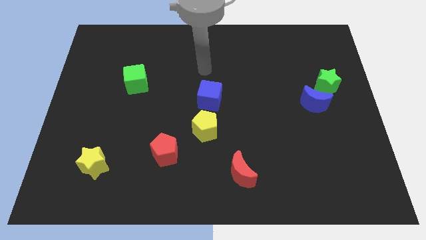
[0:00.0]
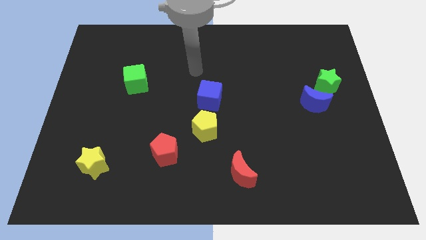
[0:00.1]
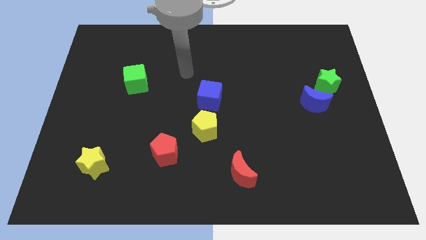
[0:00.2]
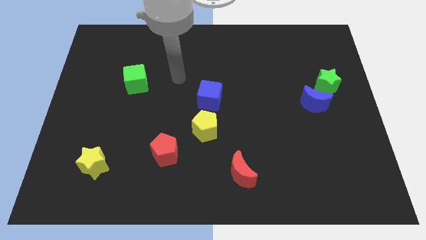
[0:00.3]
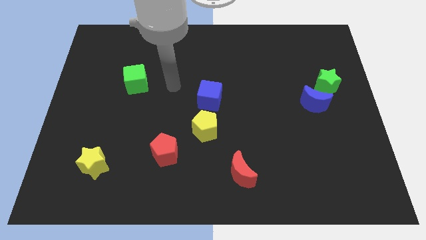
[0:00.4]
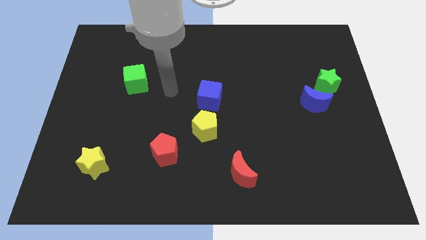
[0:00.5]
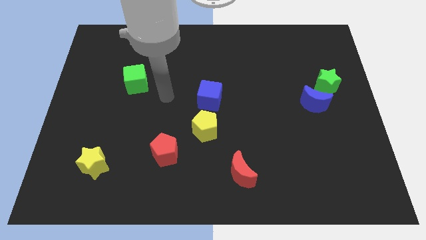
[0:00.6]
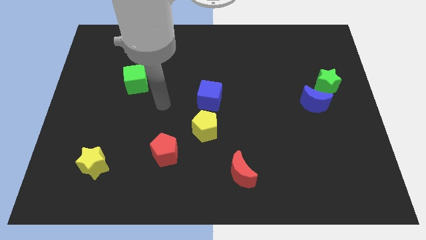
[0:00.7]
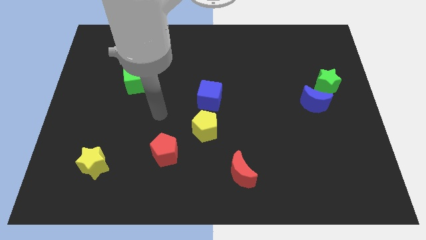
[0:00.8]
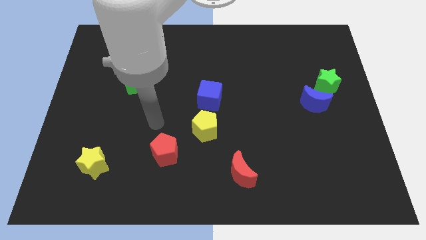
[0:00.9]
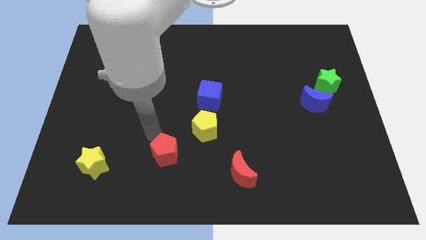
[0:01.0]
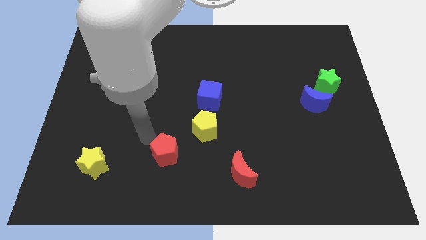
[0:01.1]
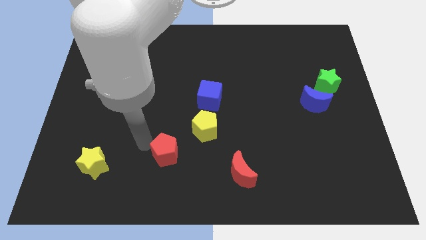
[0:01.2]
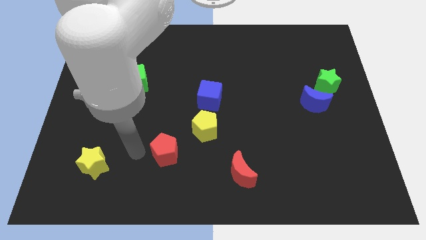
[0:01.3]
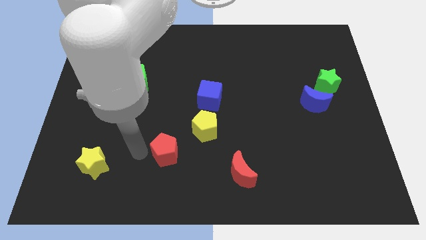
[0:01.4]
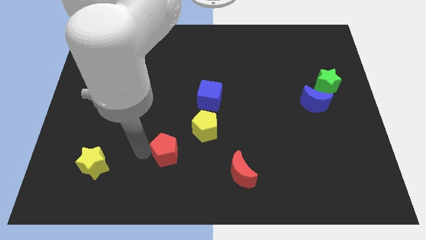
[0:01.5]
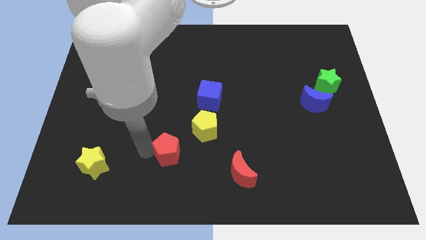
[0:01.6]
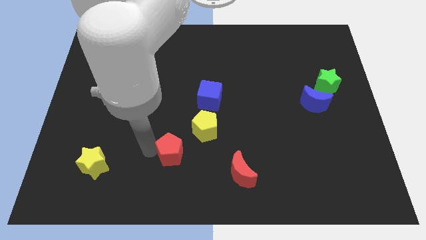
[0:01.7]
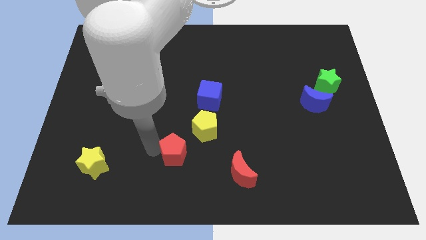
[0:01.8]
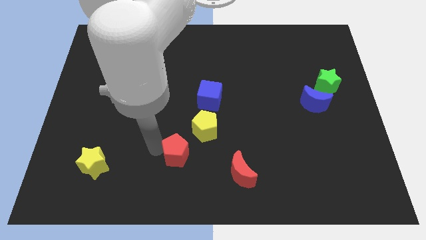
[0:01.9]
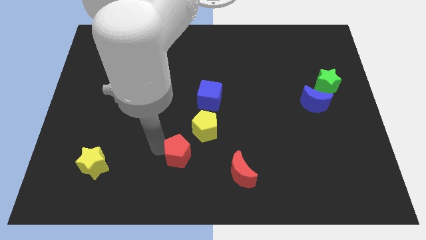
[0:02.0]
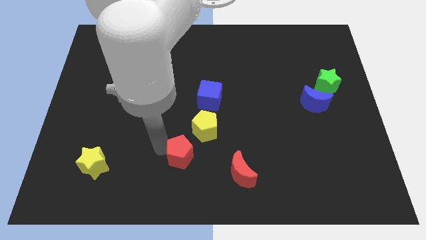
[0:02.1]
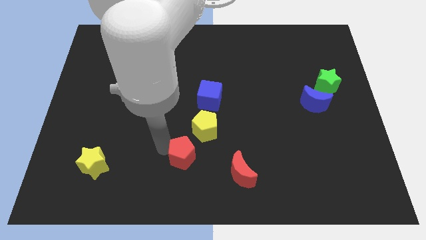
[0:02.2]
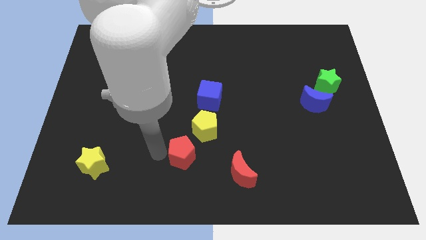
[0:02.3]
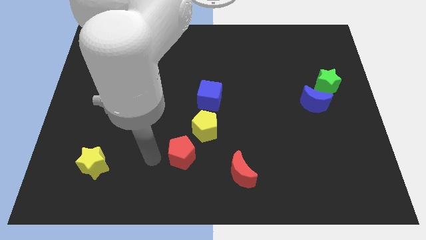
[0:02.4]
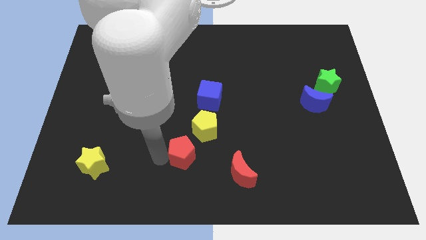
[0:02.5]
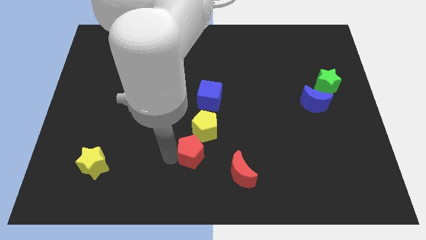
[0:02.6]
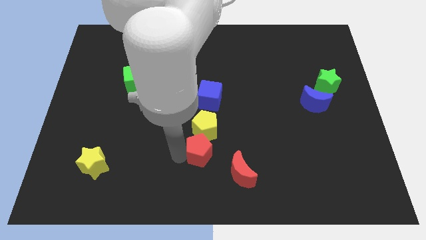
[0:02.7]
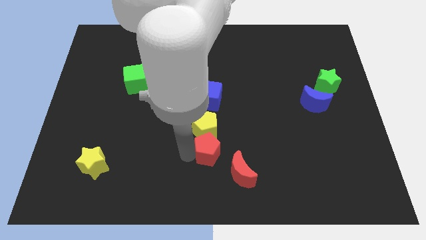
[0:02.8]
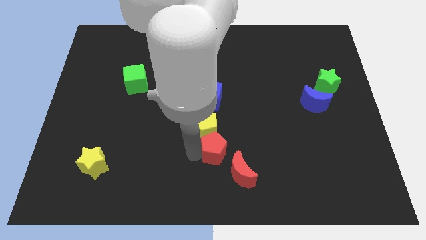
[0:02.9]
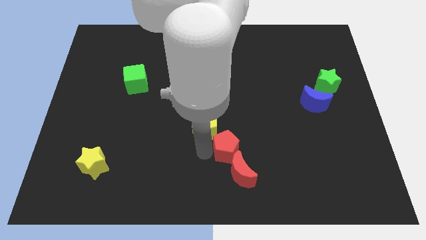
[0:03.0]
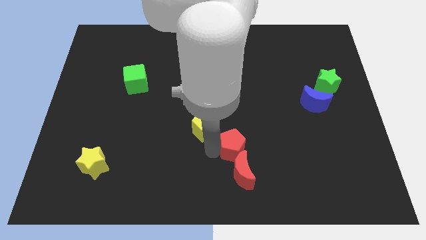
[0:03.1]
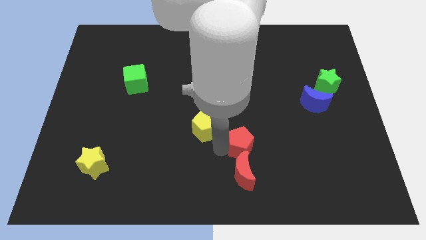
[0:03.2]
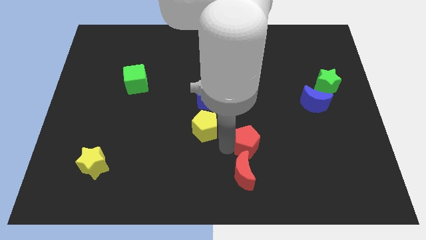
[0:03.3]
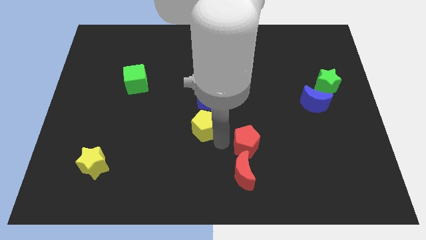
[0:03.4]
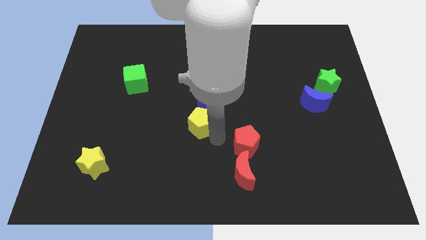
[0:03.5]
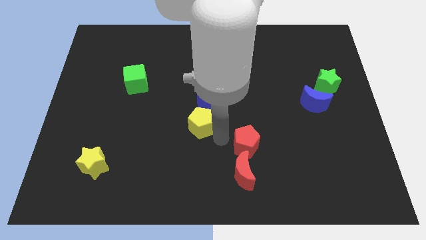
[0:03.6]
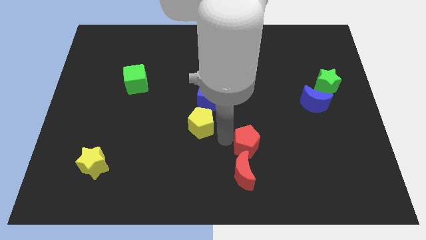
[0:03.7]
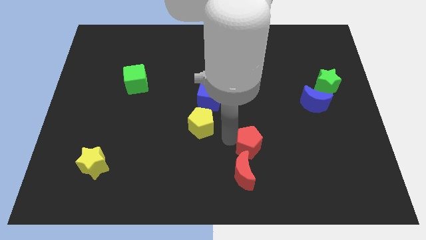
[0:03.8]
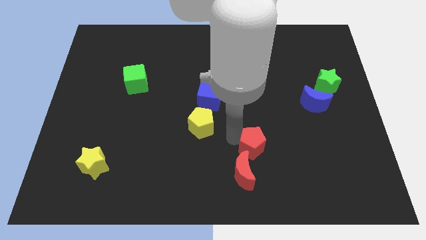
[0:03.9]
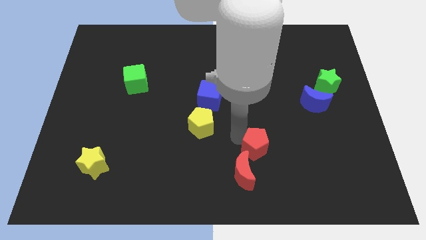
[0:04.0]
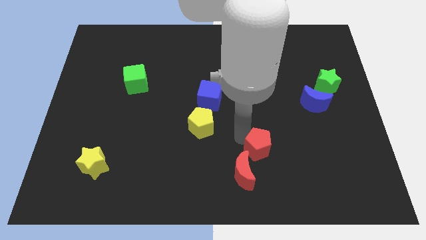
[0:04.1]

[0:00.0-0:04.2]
slide the red pentagon right

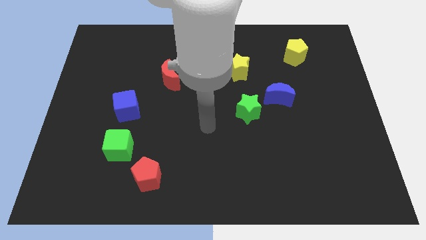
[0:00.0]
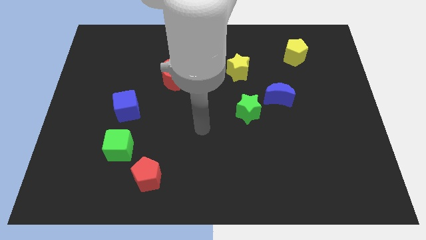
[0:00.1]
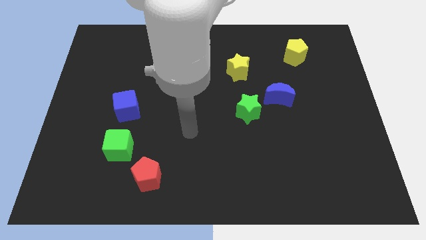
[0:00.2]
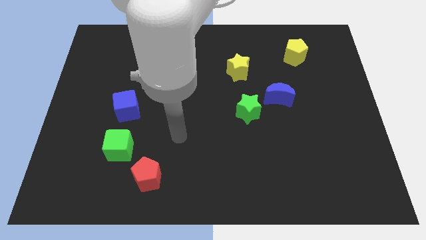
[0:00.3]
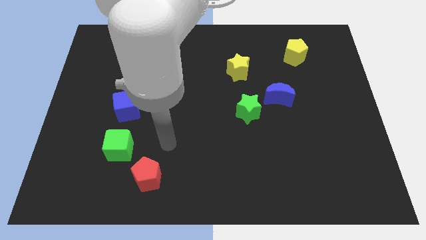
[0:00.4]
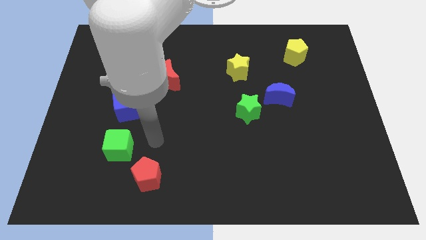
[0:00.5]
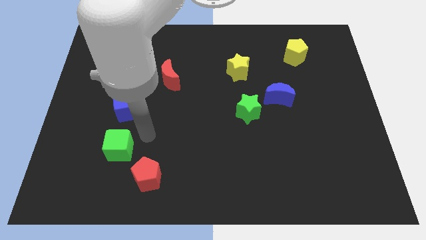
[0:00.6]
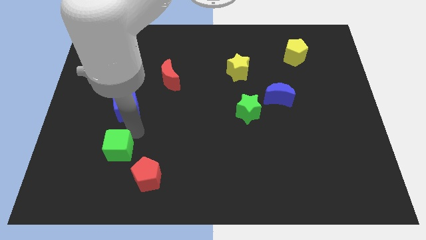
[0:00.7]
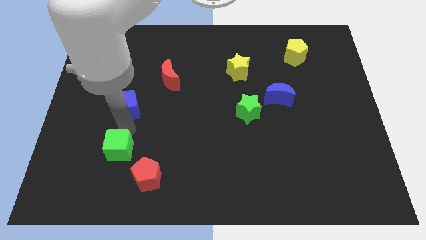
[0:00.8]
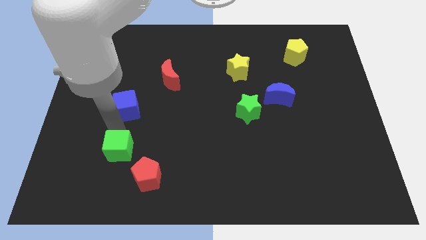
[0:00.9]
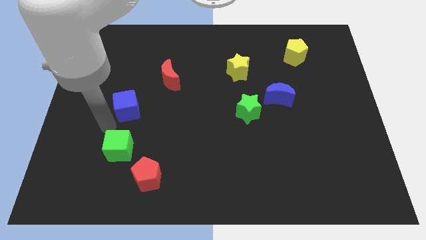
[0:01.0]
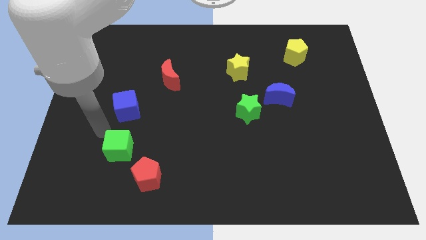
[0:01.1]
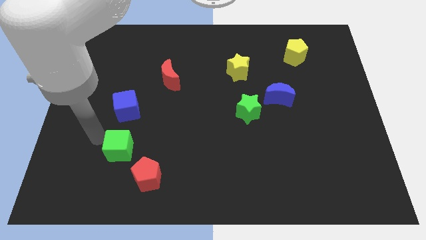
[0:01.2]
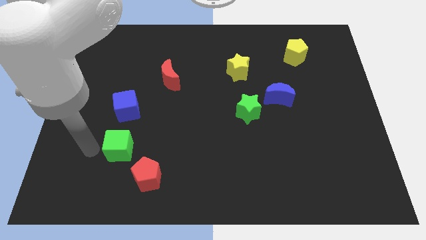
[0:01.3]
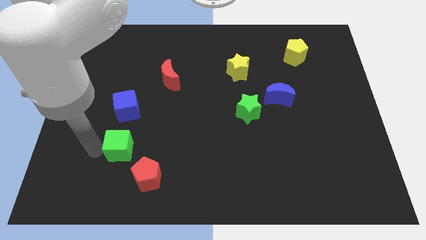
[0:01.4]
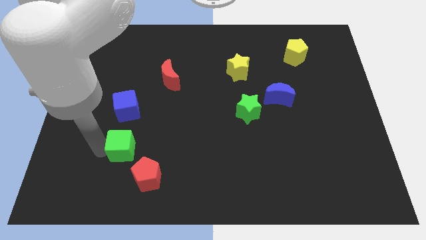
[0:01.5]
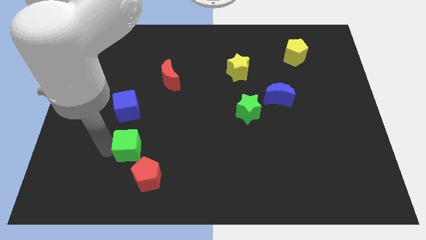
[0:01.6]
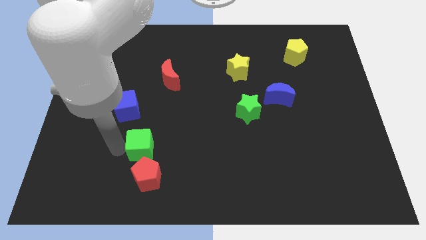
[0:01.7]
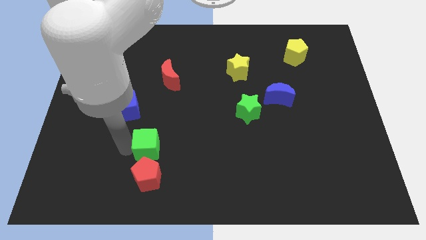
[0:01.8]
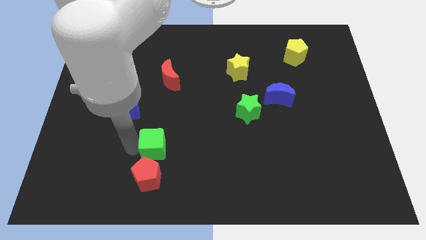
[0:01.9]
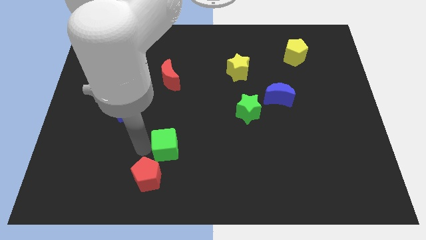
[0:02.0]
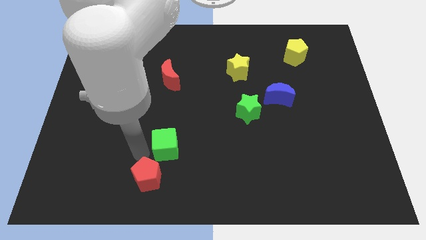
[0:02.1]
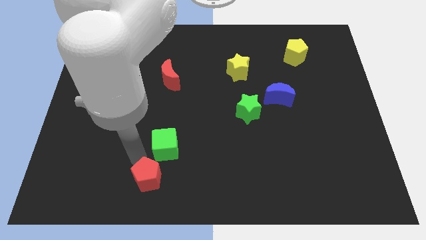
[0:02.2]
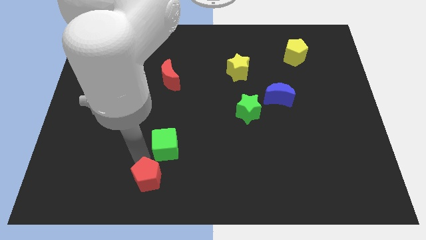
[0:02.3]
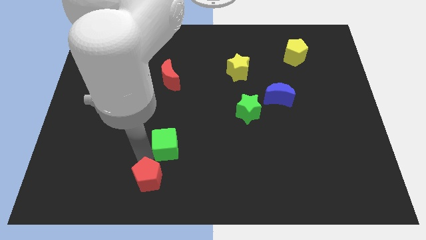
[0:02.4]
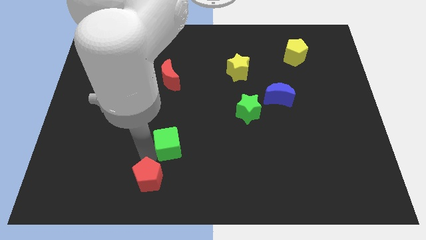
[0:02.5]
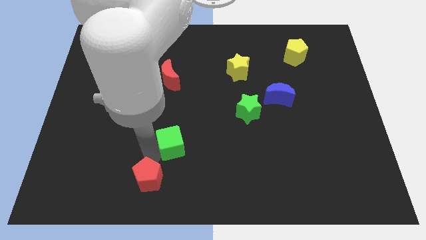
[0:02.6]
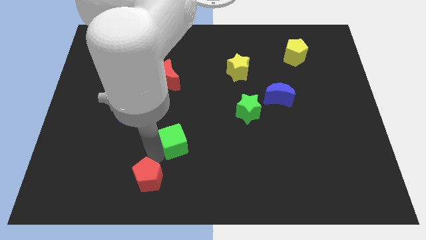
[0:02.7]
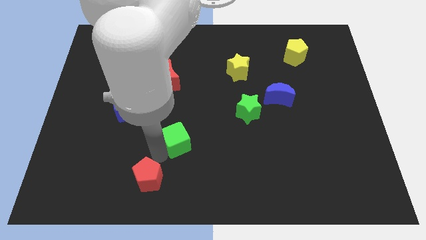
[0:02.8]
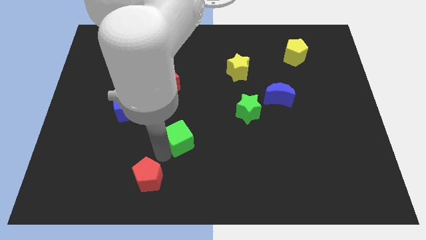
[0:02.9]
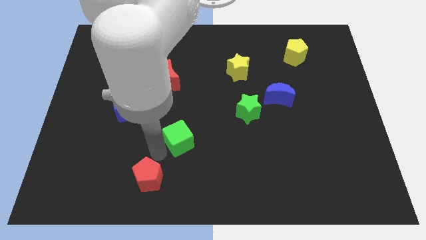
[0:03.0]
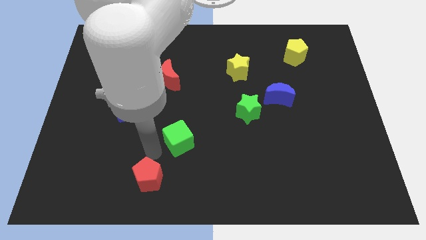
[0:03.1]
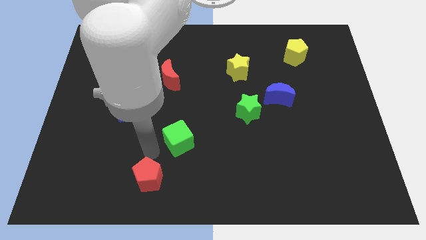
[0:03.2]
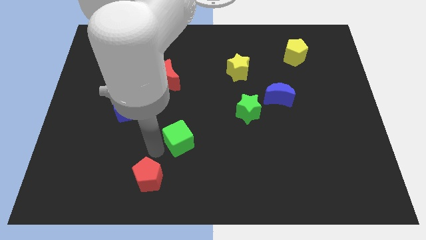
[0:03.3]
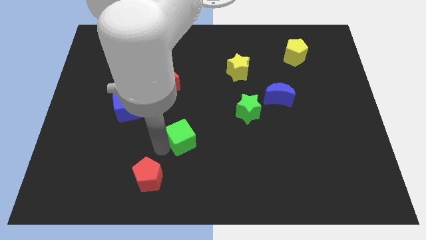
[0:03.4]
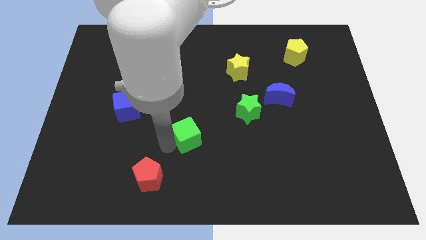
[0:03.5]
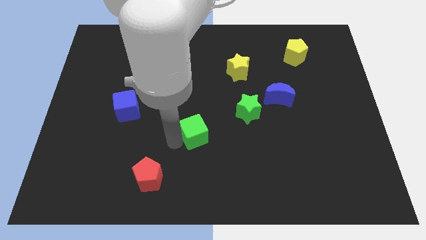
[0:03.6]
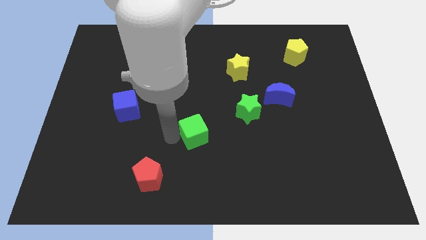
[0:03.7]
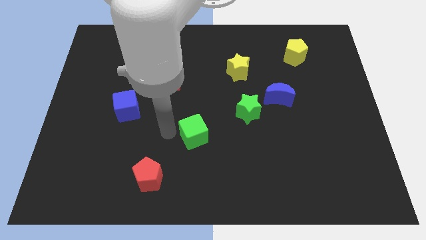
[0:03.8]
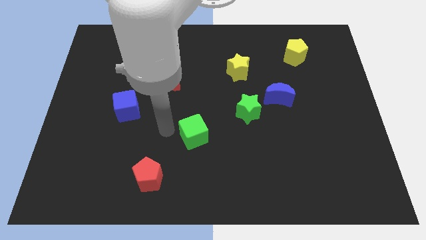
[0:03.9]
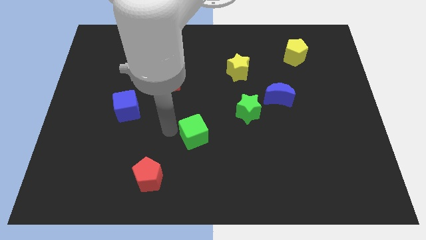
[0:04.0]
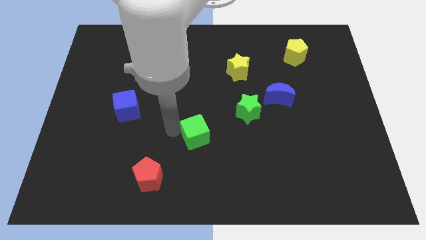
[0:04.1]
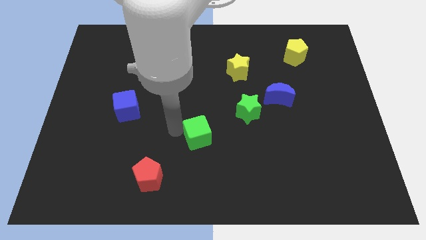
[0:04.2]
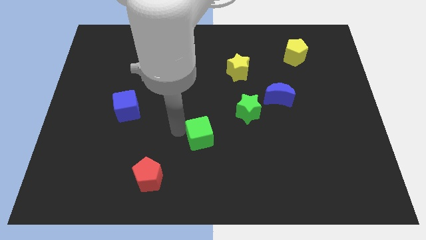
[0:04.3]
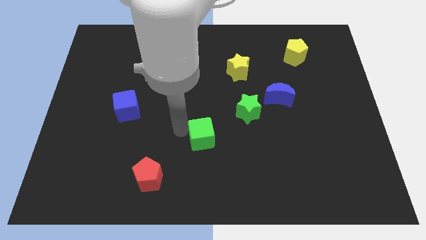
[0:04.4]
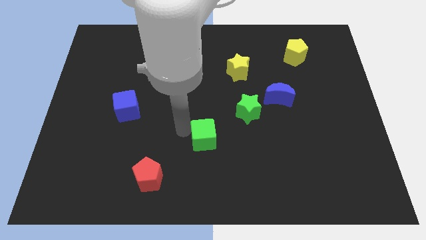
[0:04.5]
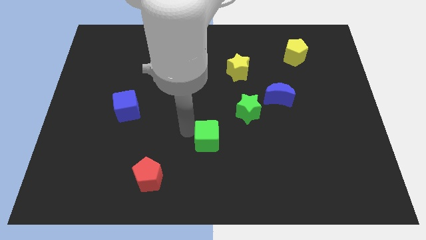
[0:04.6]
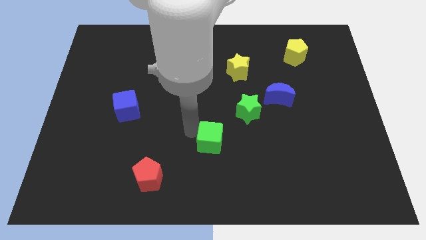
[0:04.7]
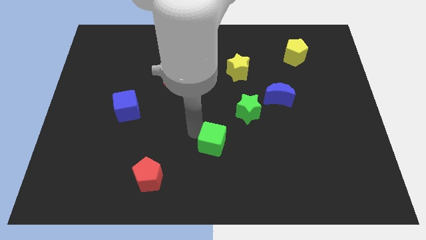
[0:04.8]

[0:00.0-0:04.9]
push the green cube to the right
